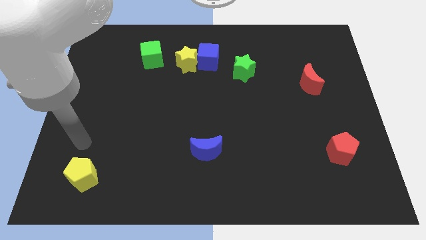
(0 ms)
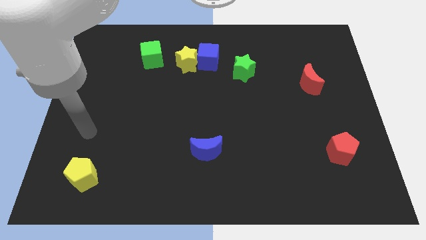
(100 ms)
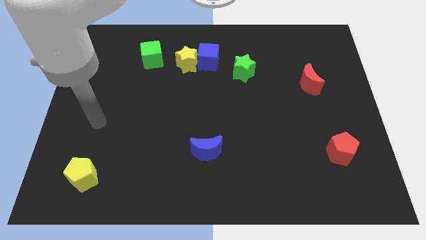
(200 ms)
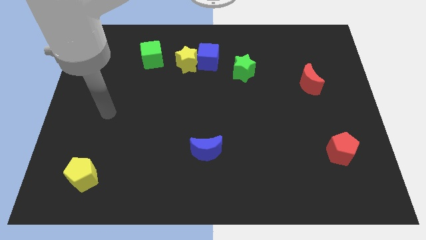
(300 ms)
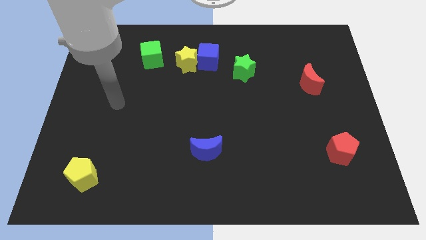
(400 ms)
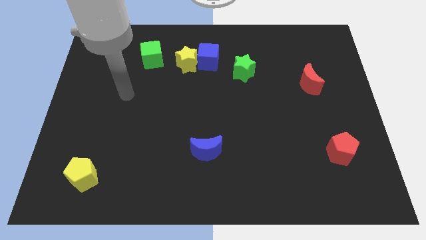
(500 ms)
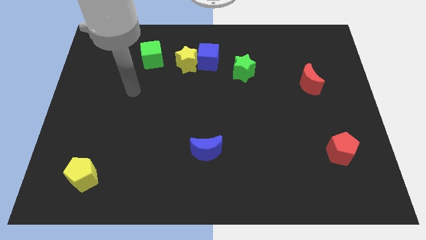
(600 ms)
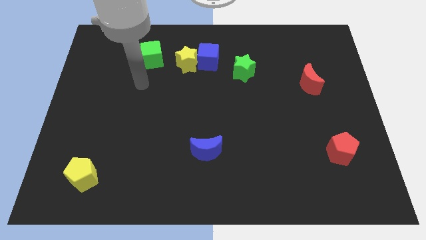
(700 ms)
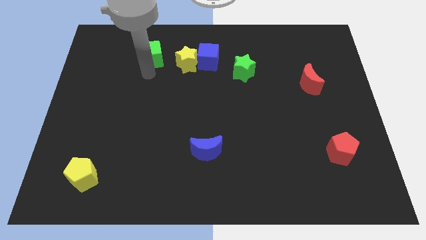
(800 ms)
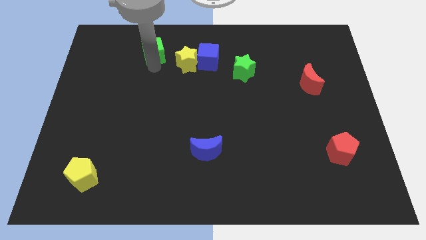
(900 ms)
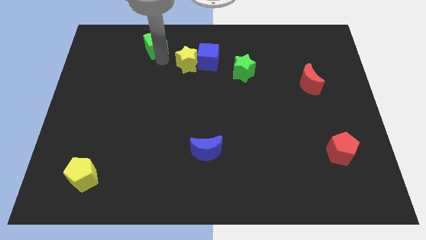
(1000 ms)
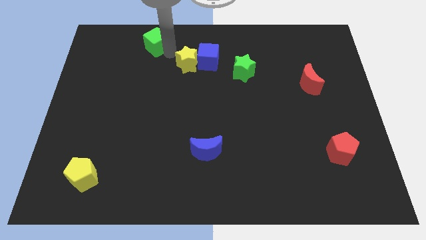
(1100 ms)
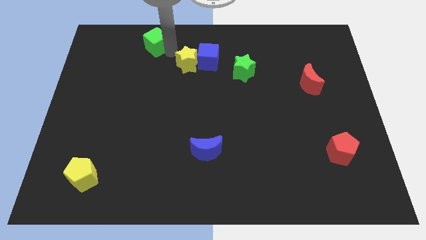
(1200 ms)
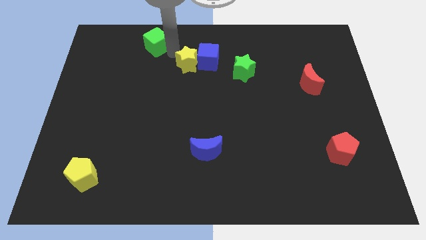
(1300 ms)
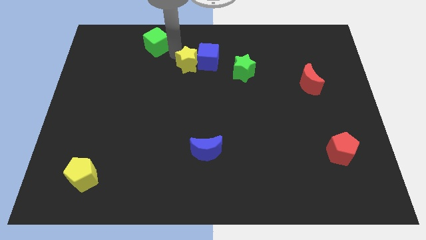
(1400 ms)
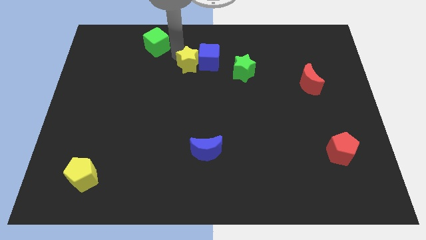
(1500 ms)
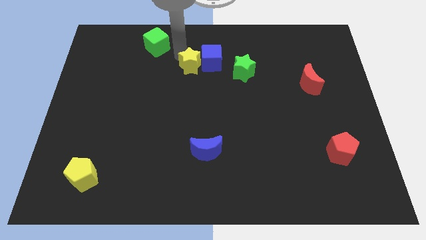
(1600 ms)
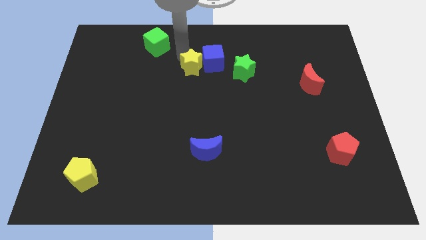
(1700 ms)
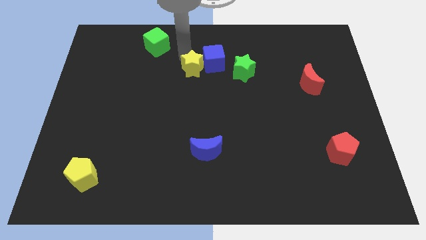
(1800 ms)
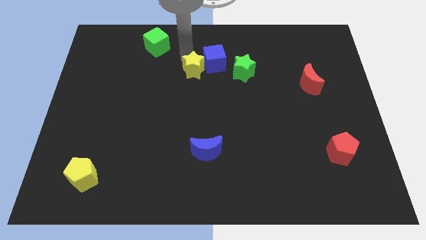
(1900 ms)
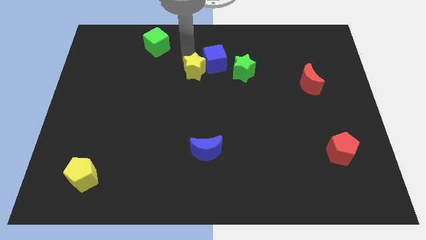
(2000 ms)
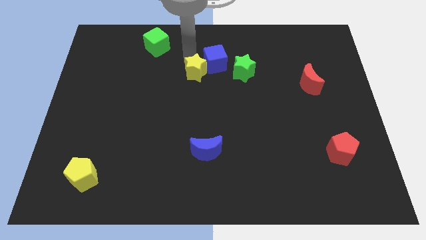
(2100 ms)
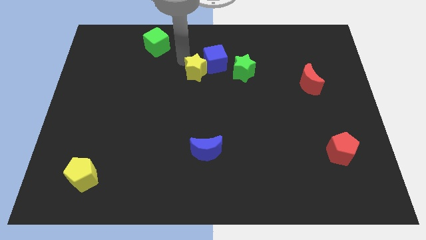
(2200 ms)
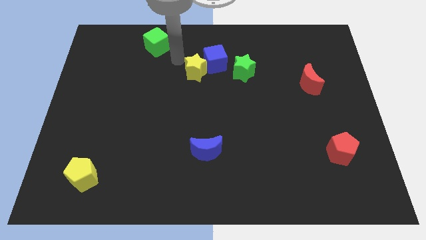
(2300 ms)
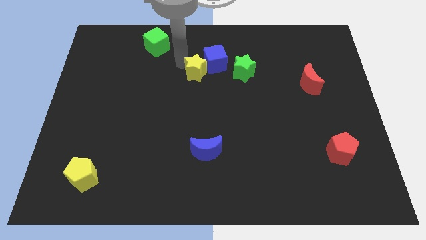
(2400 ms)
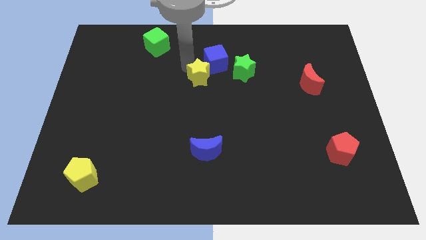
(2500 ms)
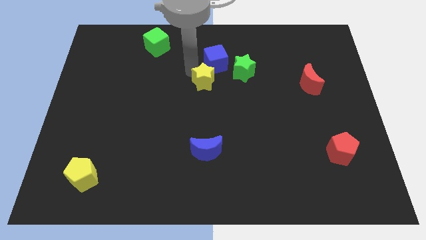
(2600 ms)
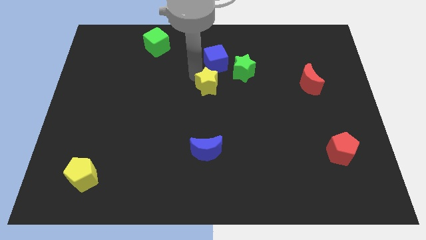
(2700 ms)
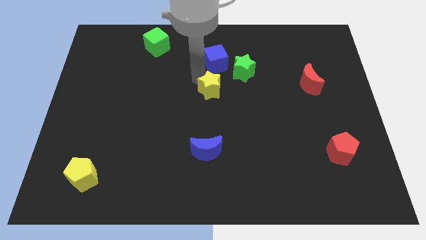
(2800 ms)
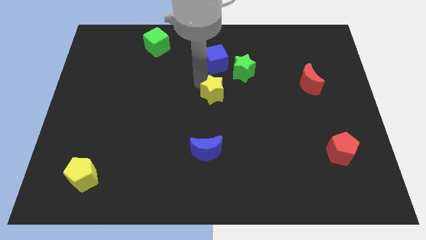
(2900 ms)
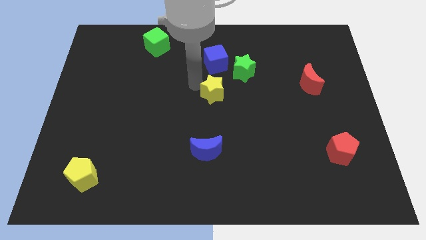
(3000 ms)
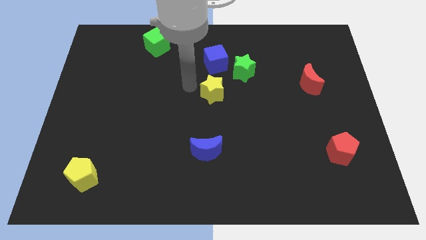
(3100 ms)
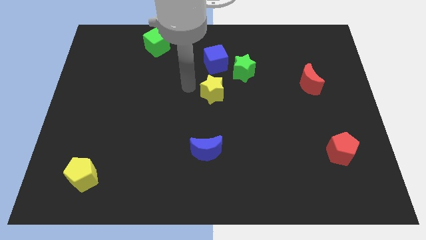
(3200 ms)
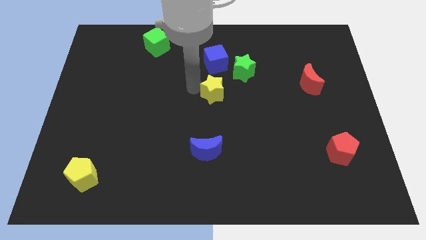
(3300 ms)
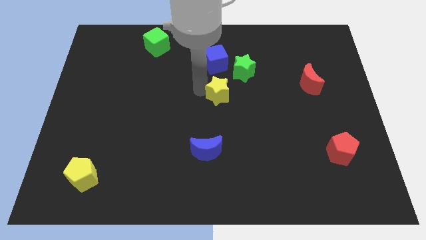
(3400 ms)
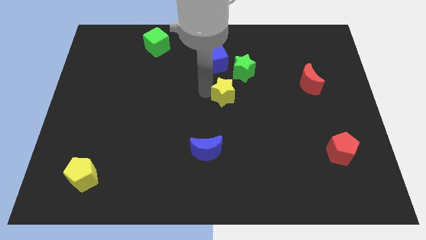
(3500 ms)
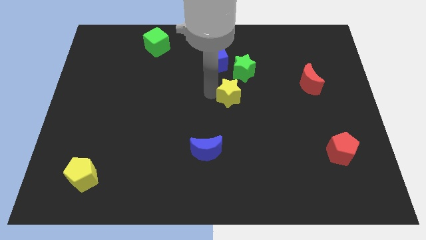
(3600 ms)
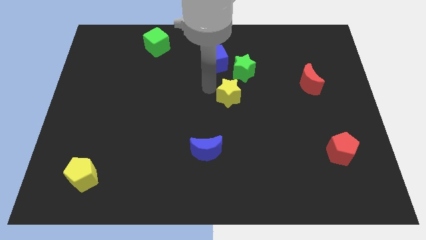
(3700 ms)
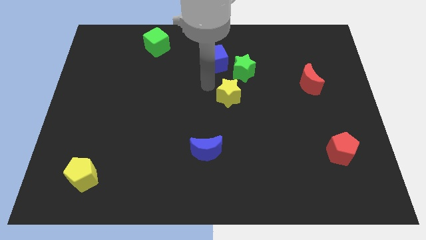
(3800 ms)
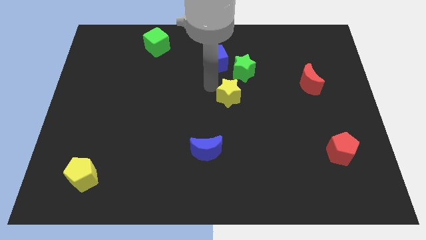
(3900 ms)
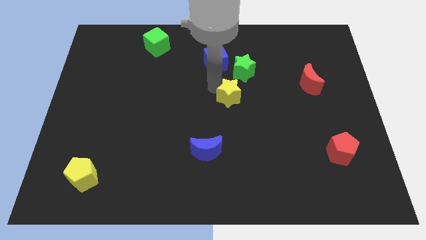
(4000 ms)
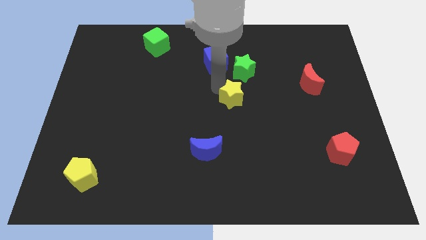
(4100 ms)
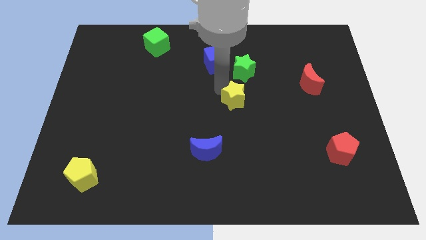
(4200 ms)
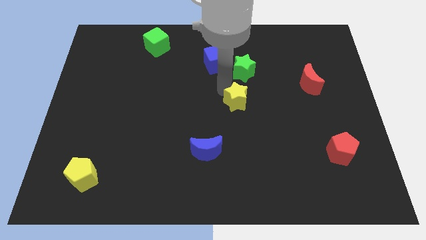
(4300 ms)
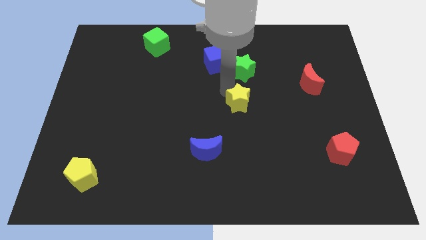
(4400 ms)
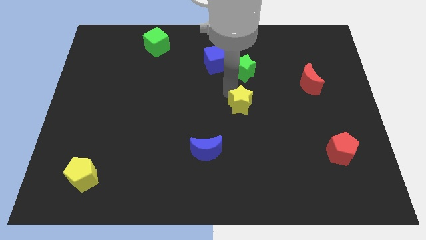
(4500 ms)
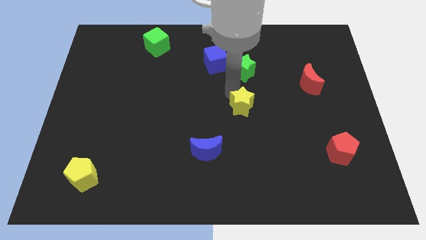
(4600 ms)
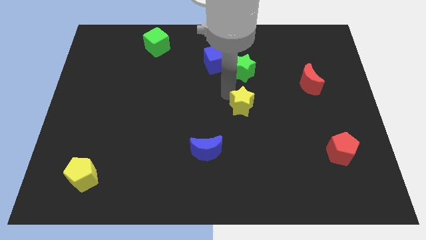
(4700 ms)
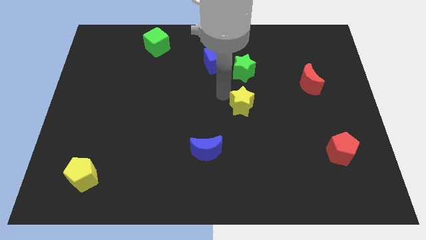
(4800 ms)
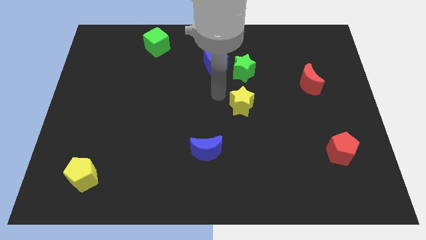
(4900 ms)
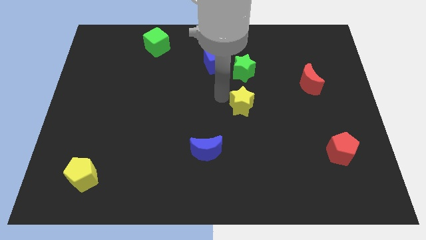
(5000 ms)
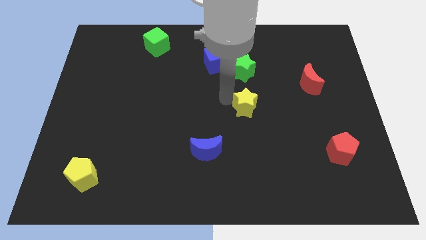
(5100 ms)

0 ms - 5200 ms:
move the yellow star downwards and to the right

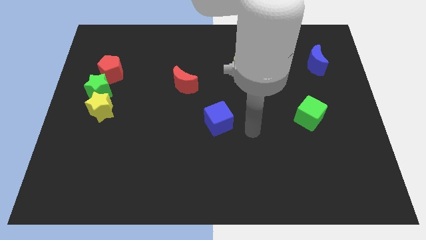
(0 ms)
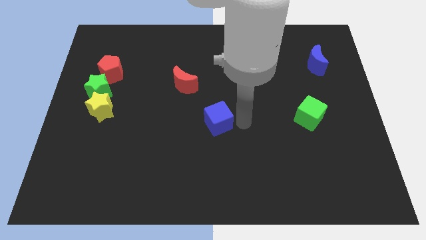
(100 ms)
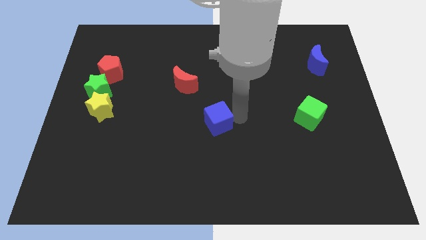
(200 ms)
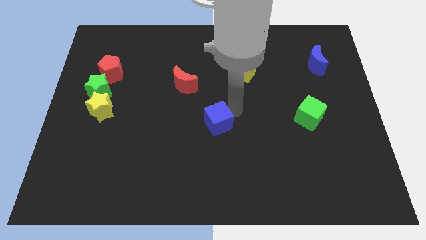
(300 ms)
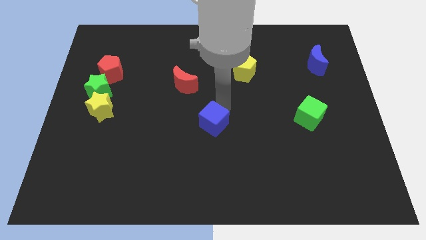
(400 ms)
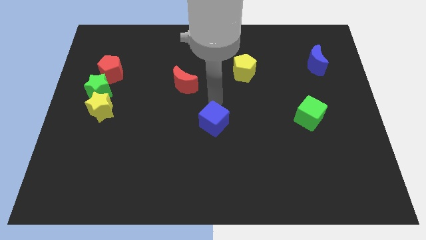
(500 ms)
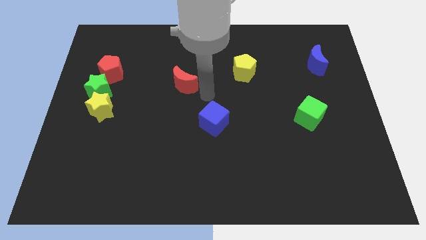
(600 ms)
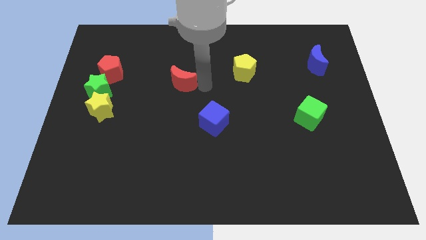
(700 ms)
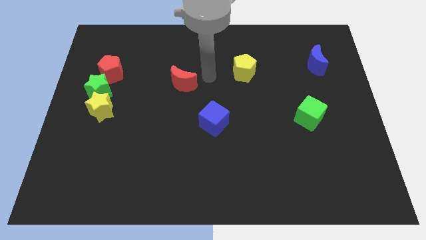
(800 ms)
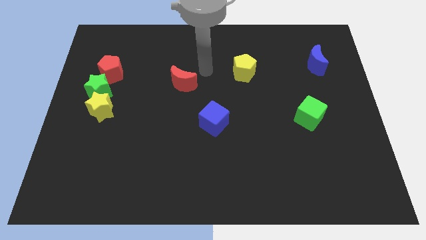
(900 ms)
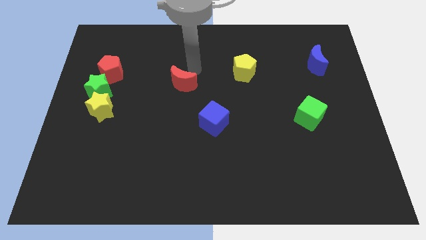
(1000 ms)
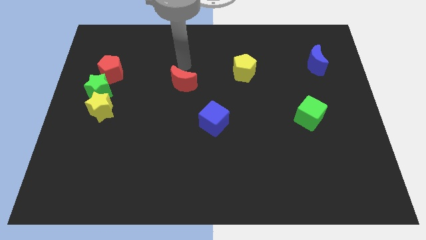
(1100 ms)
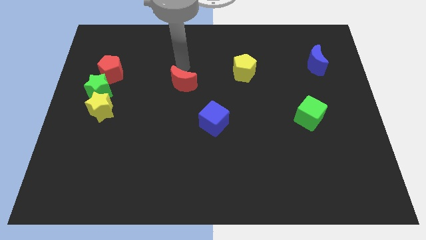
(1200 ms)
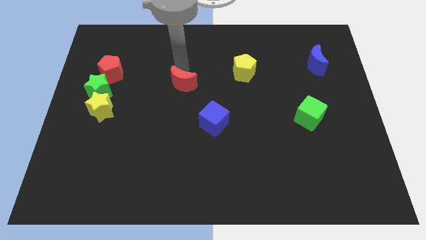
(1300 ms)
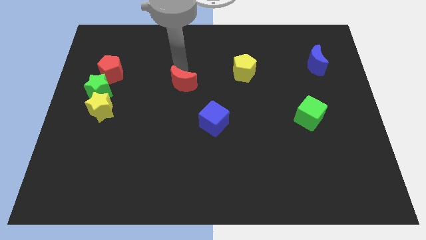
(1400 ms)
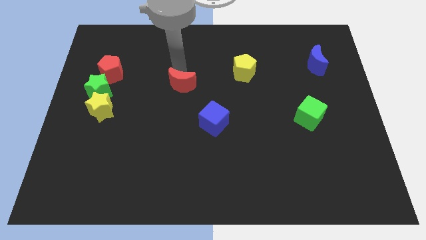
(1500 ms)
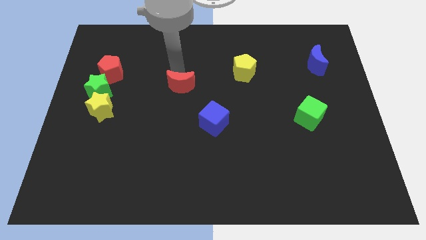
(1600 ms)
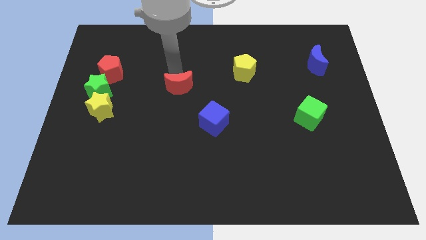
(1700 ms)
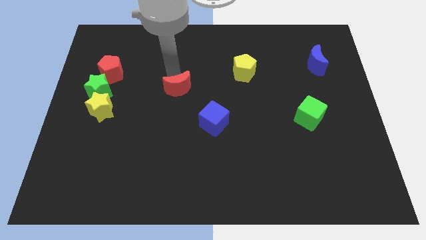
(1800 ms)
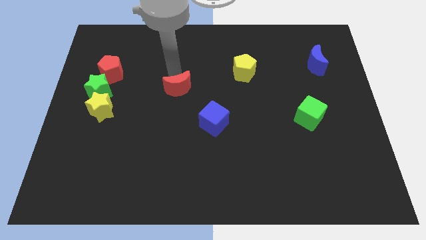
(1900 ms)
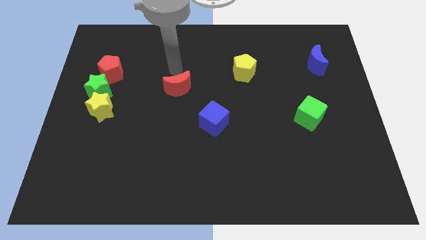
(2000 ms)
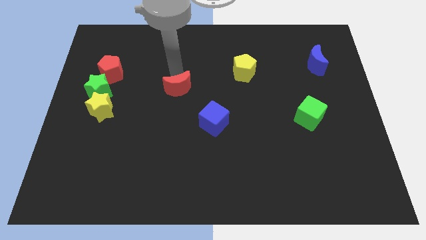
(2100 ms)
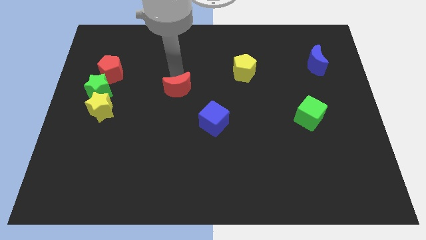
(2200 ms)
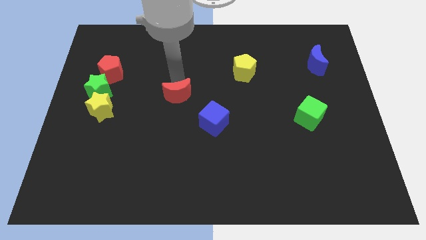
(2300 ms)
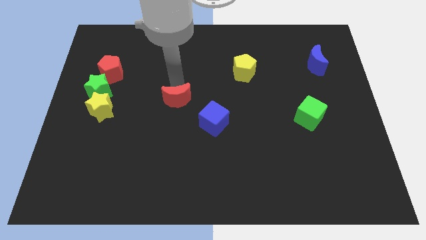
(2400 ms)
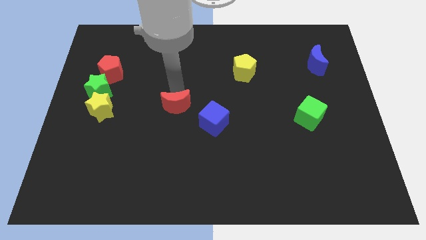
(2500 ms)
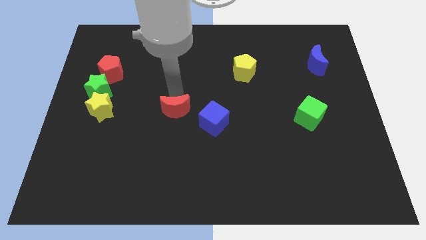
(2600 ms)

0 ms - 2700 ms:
slightly move the red moon down
